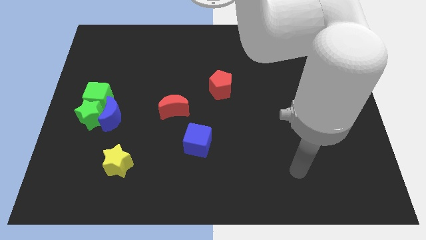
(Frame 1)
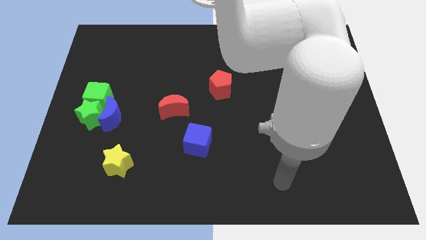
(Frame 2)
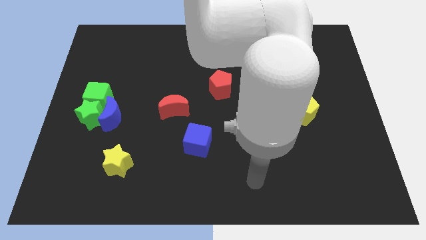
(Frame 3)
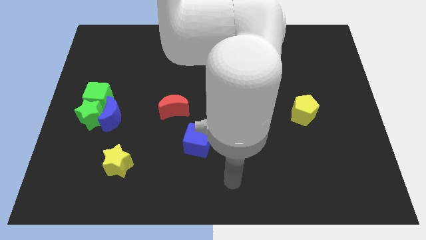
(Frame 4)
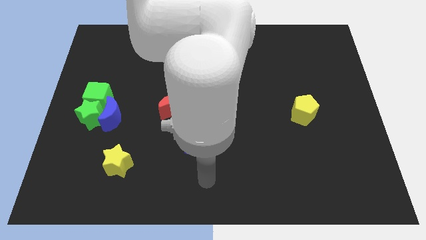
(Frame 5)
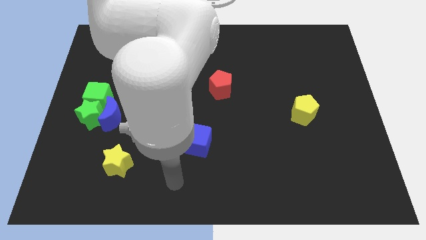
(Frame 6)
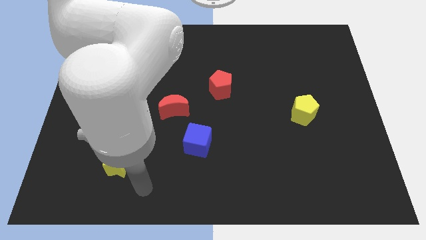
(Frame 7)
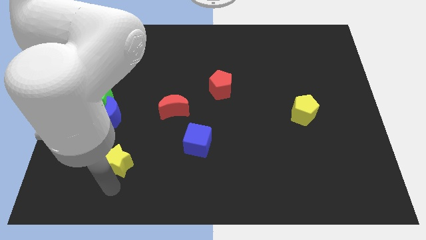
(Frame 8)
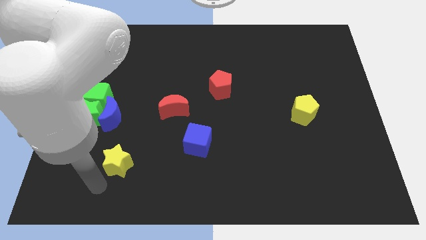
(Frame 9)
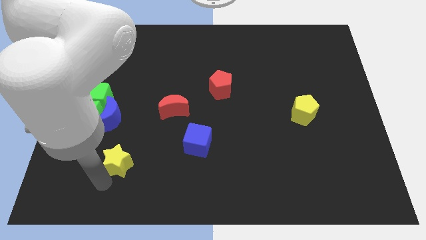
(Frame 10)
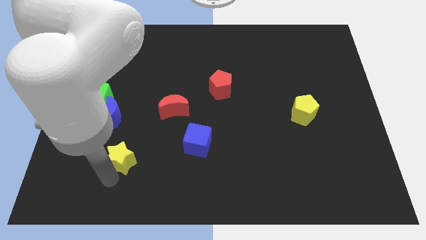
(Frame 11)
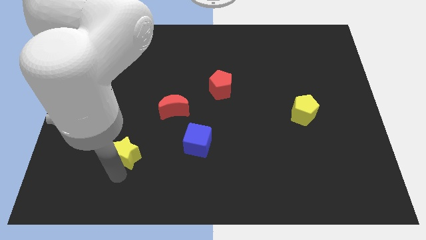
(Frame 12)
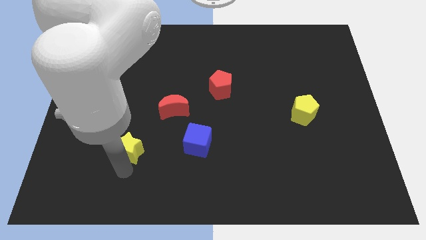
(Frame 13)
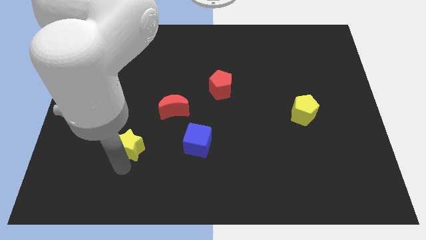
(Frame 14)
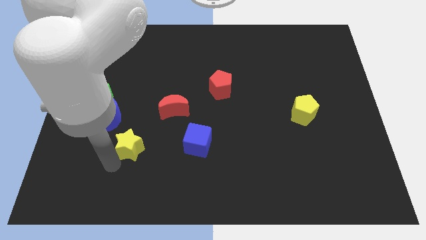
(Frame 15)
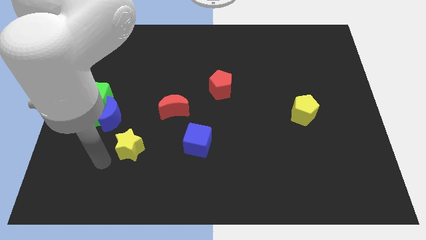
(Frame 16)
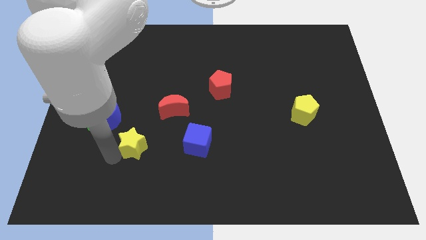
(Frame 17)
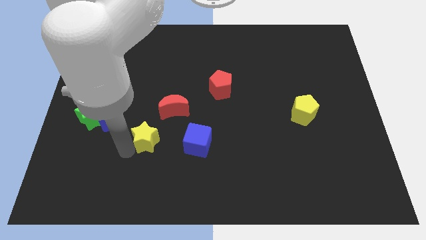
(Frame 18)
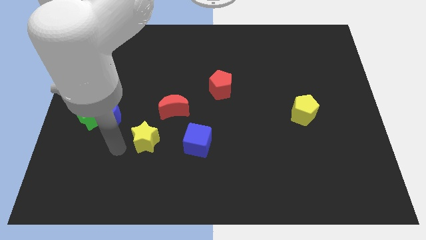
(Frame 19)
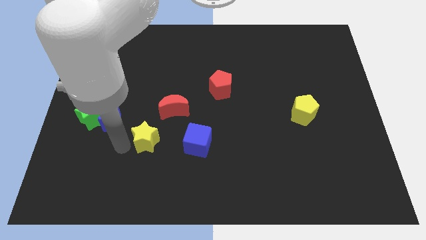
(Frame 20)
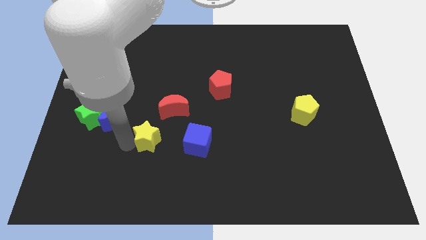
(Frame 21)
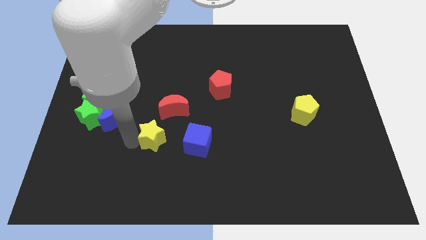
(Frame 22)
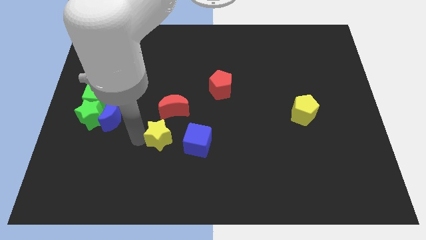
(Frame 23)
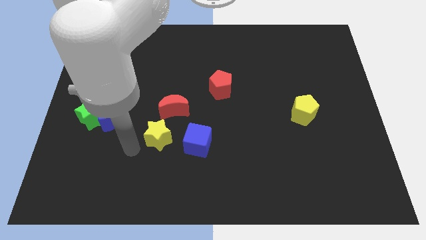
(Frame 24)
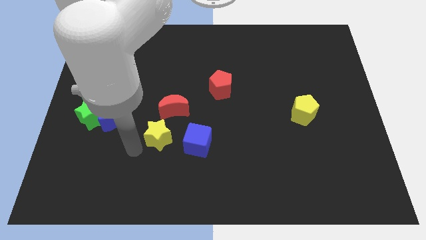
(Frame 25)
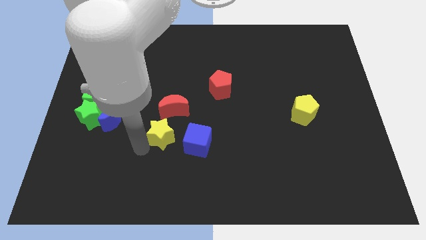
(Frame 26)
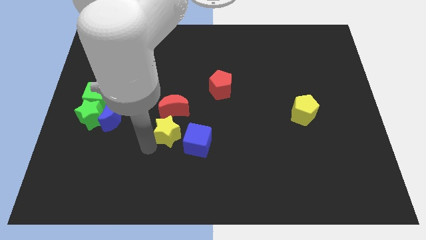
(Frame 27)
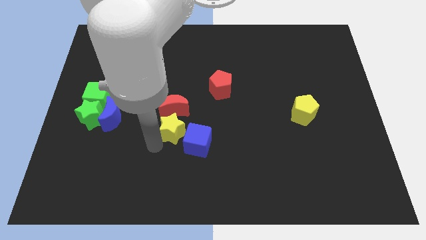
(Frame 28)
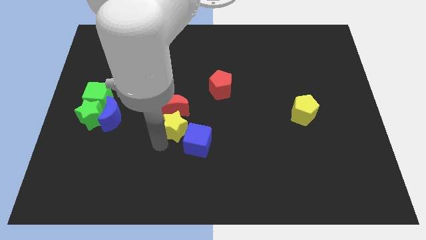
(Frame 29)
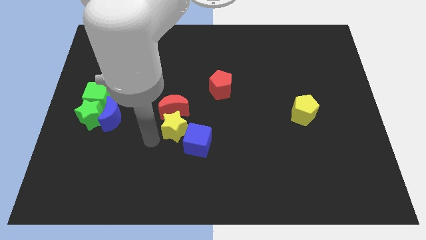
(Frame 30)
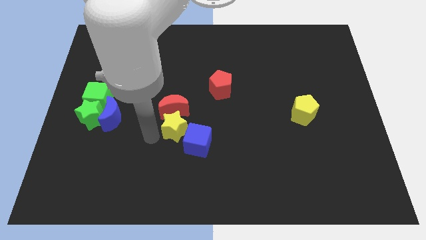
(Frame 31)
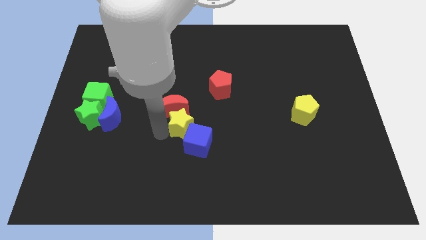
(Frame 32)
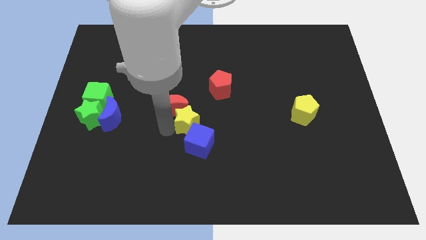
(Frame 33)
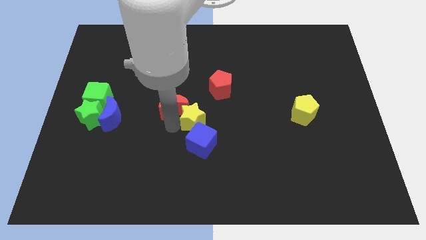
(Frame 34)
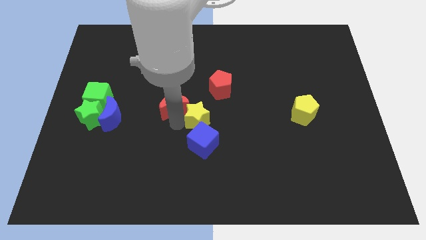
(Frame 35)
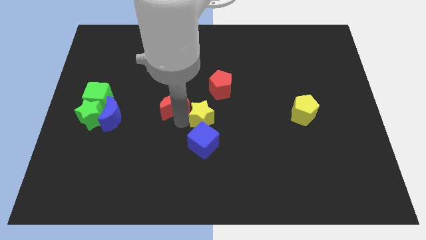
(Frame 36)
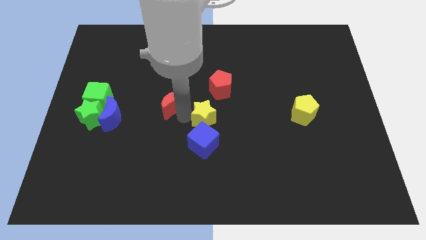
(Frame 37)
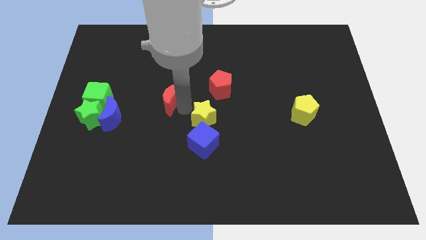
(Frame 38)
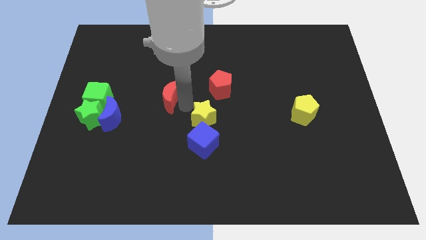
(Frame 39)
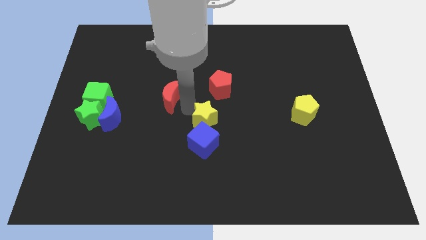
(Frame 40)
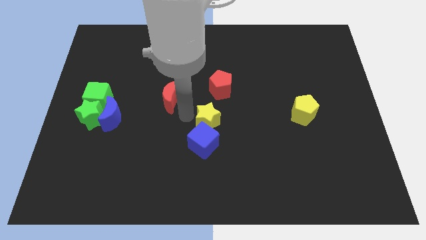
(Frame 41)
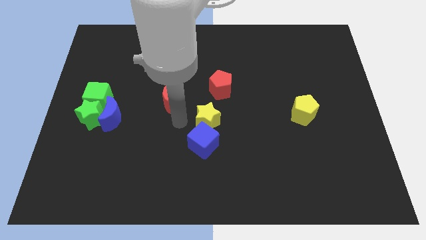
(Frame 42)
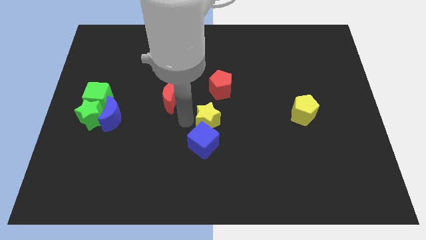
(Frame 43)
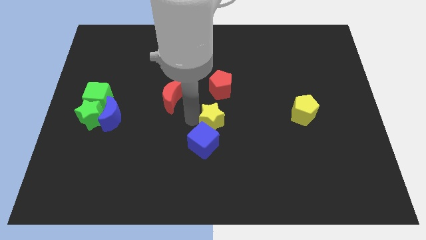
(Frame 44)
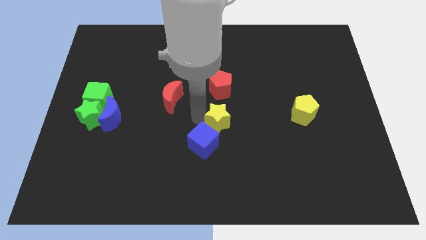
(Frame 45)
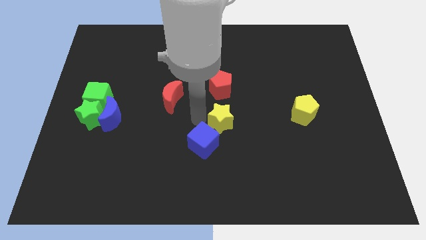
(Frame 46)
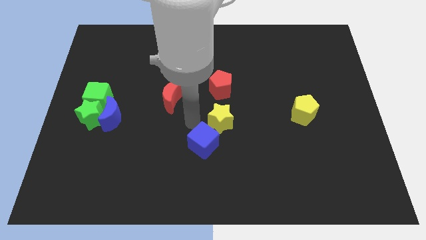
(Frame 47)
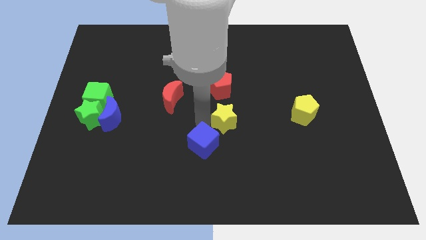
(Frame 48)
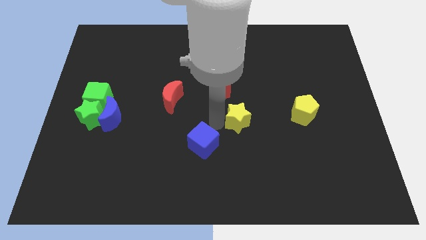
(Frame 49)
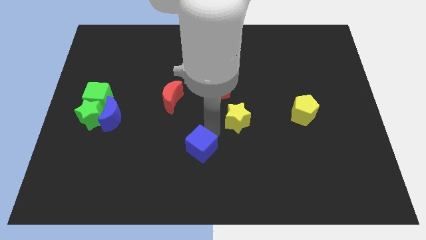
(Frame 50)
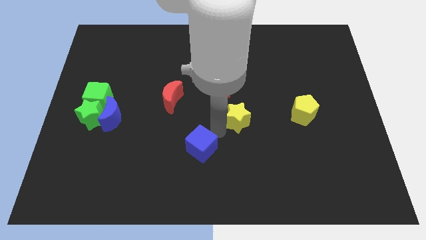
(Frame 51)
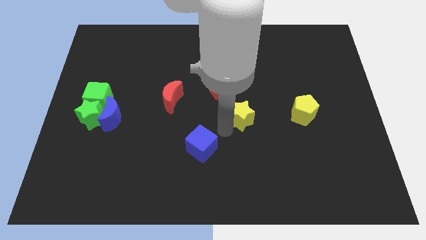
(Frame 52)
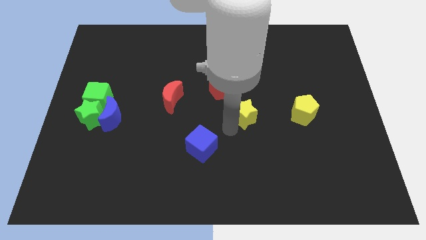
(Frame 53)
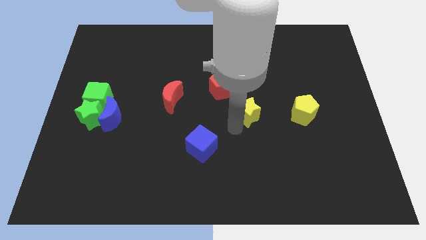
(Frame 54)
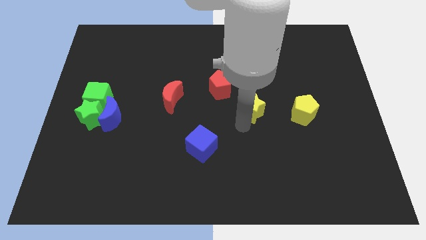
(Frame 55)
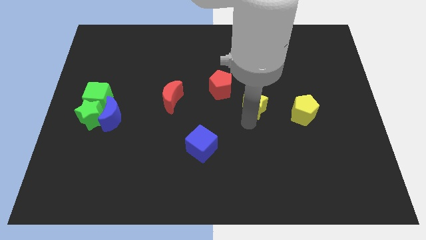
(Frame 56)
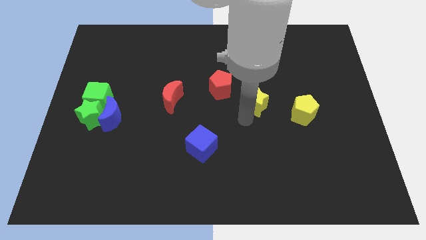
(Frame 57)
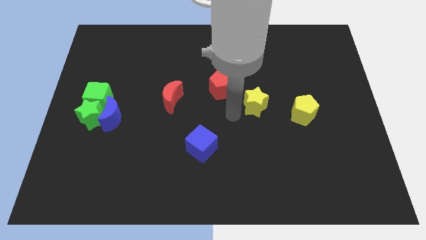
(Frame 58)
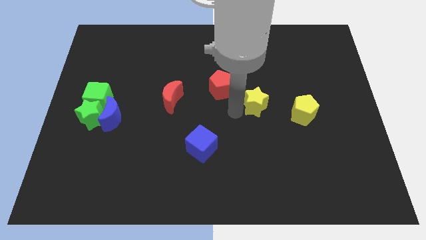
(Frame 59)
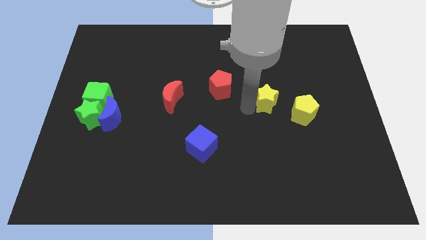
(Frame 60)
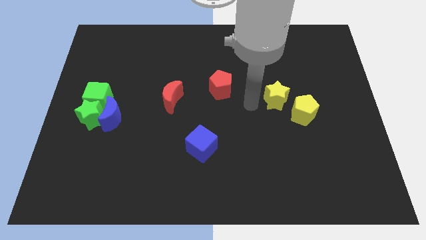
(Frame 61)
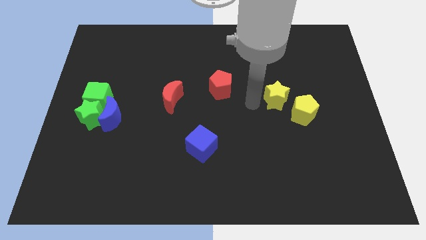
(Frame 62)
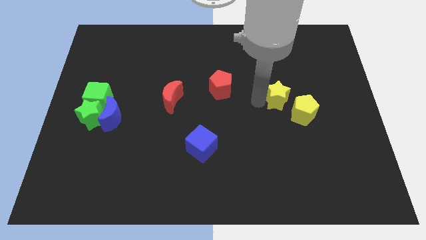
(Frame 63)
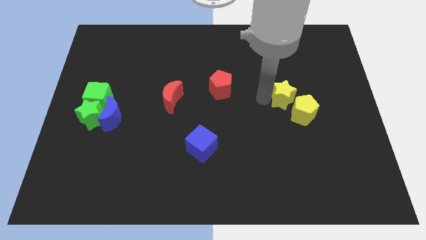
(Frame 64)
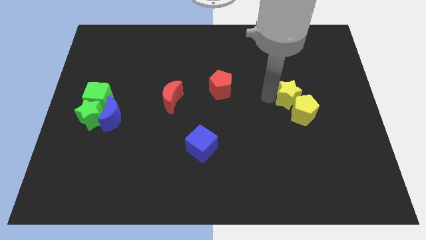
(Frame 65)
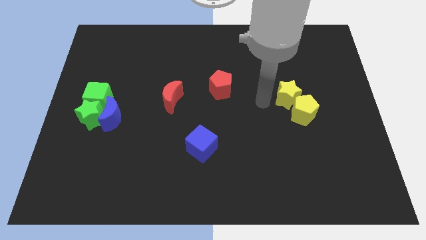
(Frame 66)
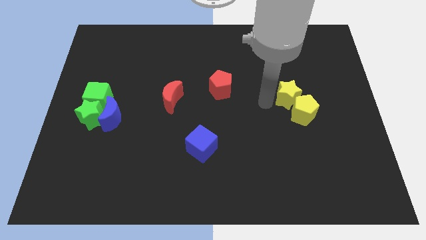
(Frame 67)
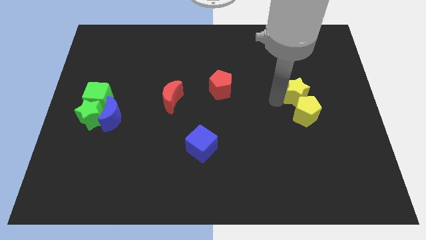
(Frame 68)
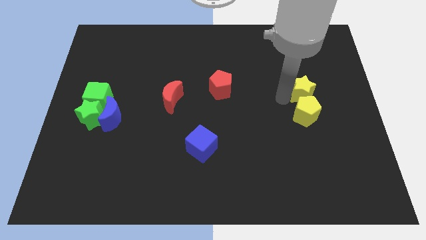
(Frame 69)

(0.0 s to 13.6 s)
push the yellow star diagonally up and to the right of the yellow pentagon

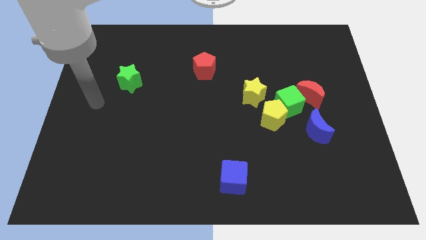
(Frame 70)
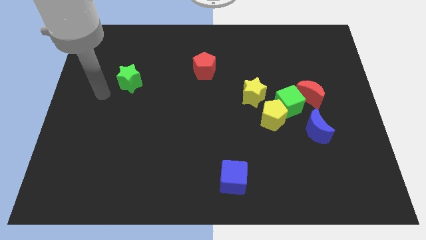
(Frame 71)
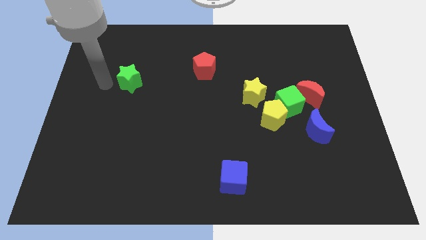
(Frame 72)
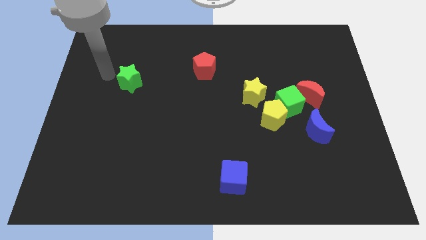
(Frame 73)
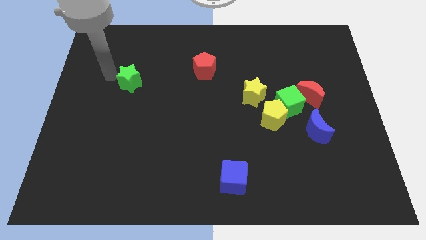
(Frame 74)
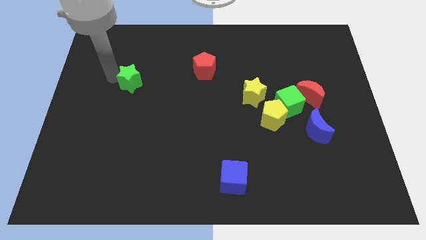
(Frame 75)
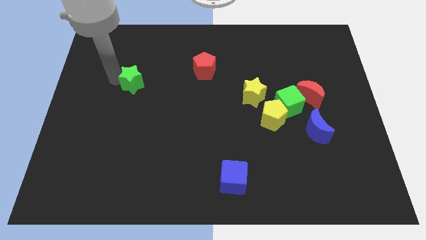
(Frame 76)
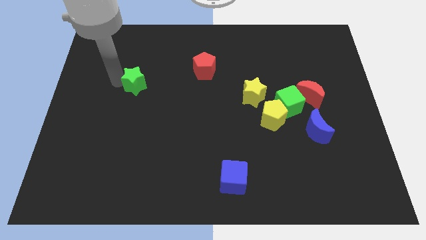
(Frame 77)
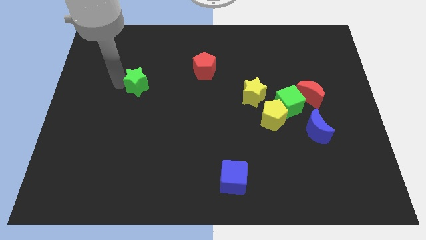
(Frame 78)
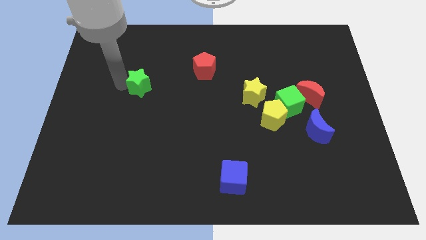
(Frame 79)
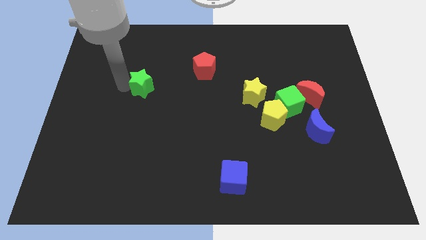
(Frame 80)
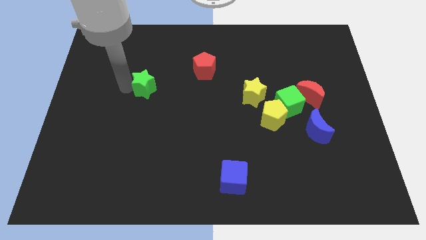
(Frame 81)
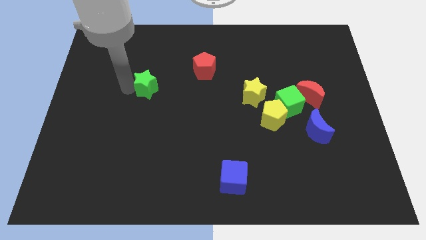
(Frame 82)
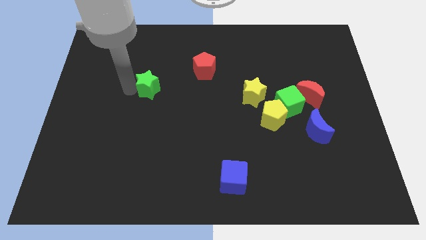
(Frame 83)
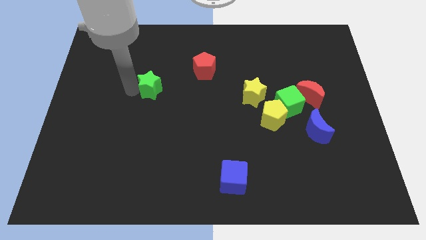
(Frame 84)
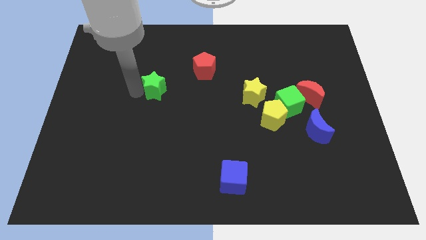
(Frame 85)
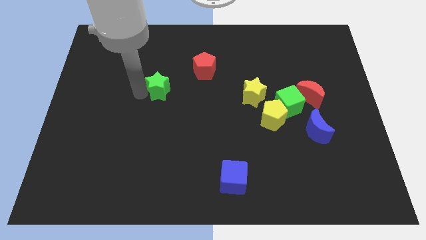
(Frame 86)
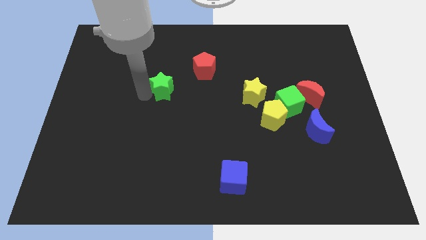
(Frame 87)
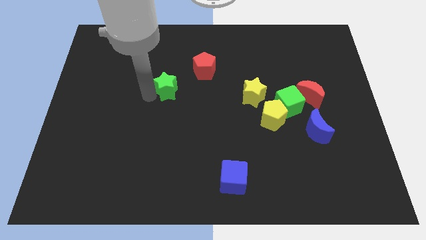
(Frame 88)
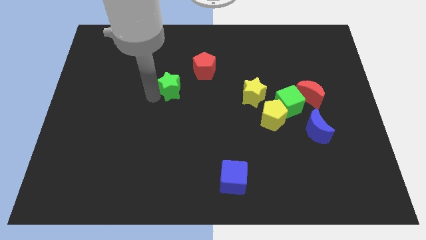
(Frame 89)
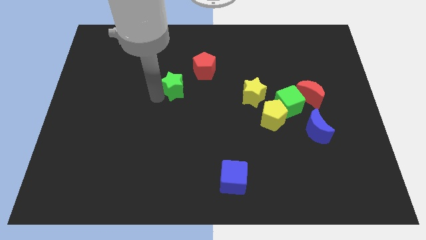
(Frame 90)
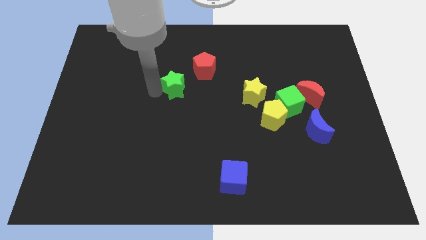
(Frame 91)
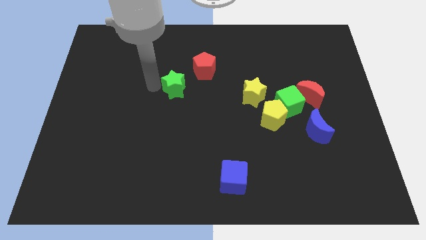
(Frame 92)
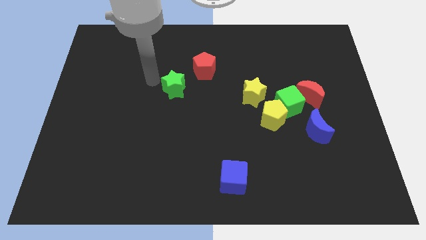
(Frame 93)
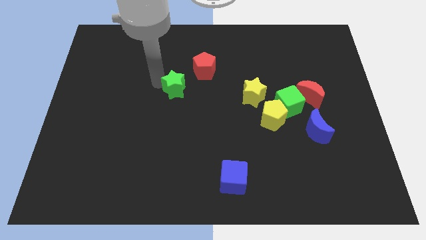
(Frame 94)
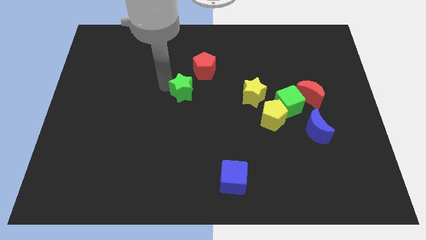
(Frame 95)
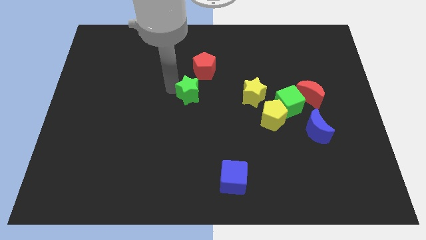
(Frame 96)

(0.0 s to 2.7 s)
push the green star to the bottom side of the red pentagon
